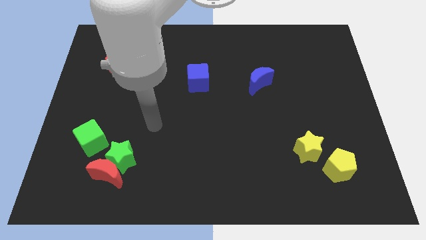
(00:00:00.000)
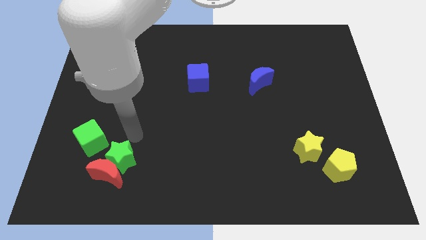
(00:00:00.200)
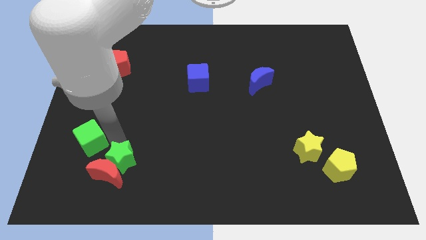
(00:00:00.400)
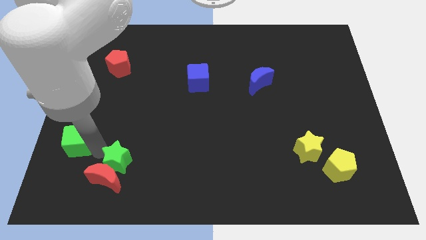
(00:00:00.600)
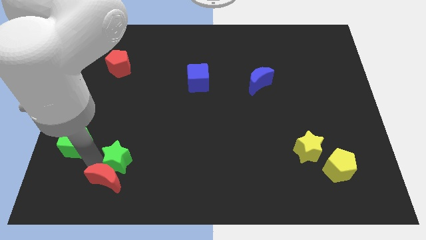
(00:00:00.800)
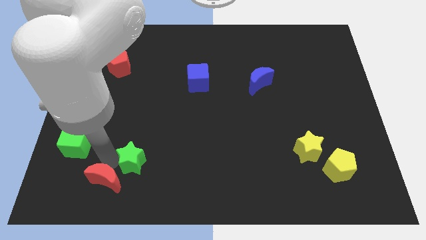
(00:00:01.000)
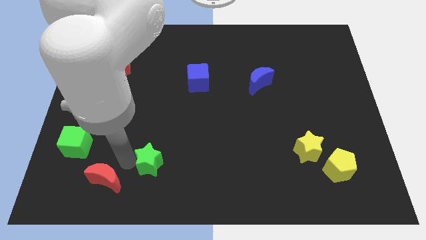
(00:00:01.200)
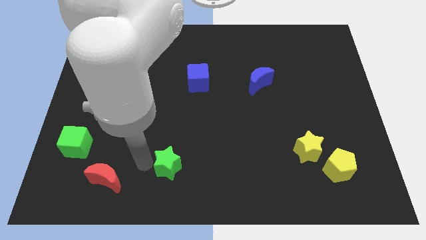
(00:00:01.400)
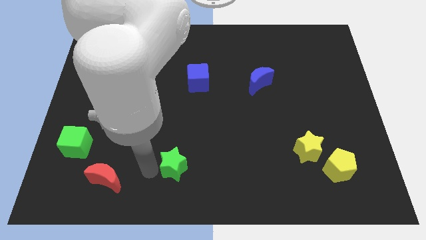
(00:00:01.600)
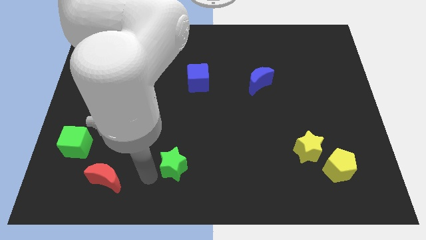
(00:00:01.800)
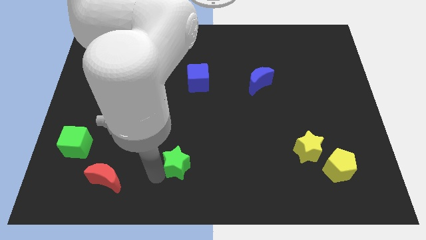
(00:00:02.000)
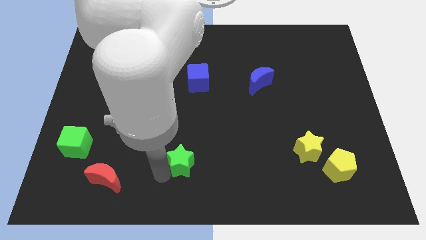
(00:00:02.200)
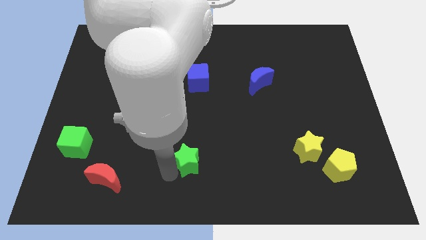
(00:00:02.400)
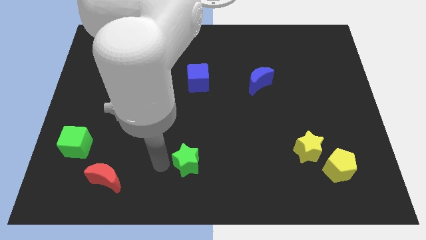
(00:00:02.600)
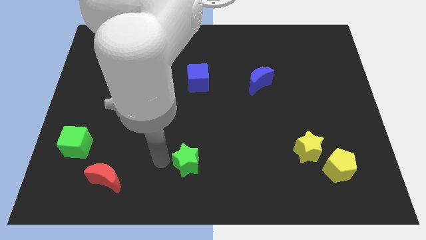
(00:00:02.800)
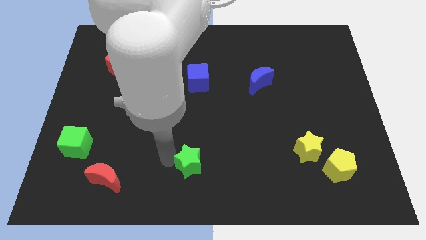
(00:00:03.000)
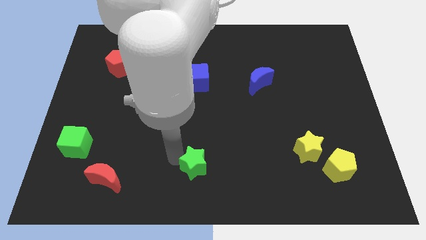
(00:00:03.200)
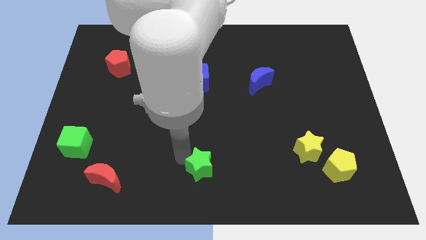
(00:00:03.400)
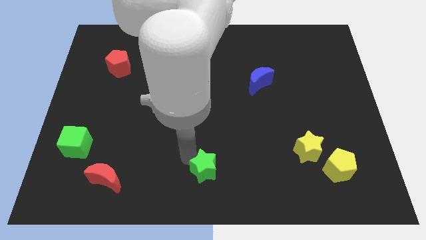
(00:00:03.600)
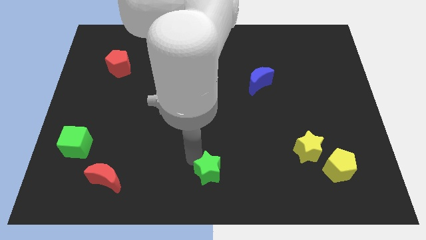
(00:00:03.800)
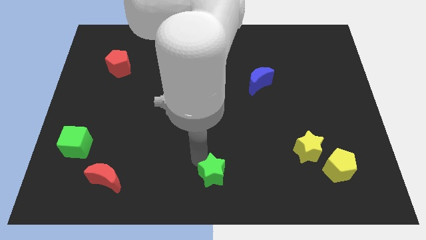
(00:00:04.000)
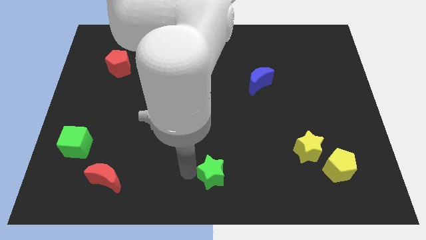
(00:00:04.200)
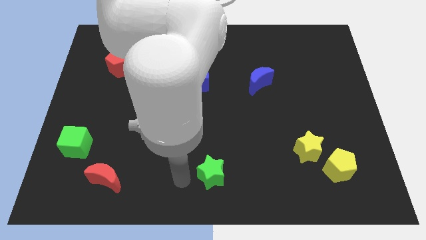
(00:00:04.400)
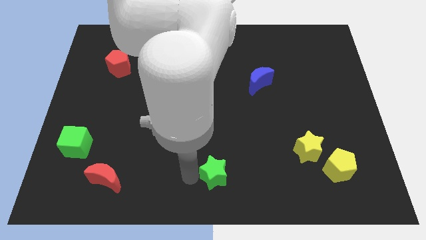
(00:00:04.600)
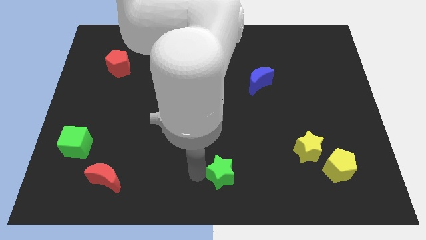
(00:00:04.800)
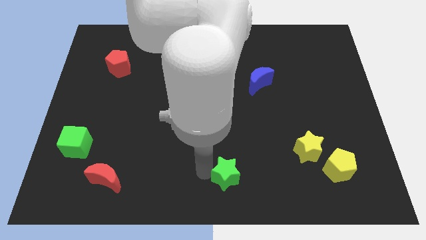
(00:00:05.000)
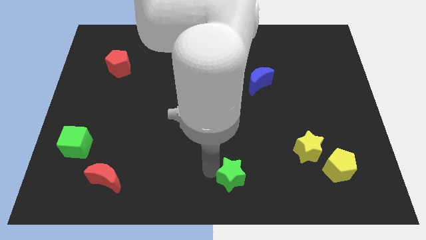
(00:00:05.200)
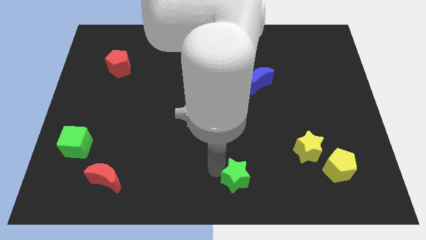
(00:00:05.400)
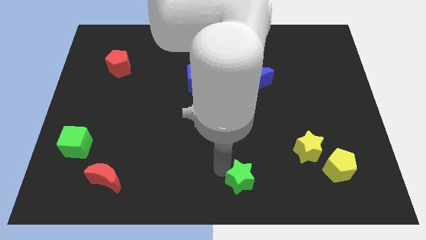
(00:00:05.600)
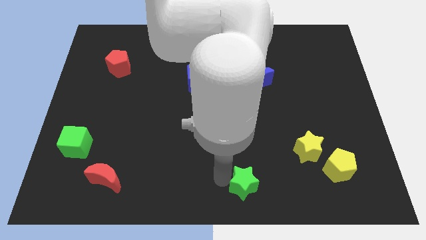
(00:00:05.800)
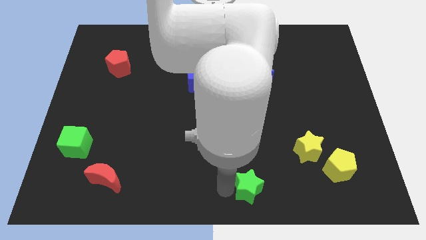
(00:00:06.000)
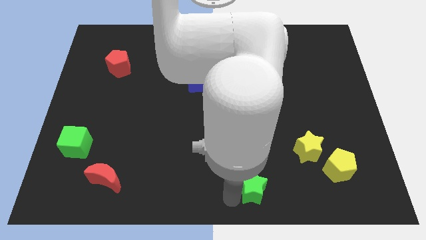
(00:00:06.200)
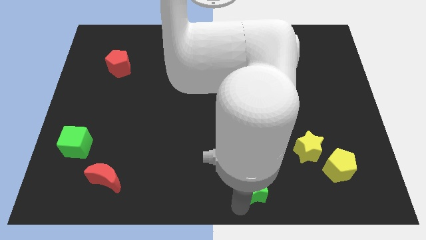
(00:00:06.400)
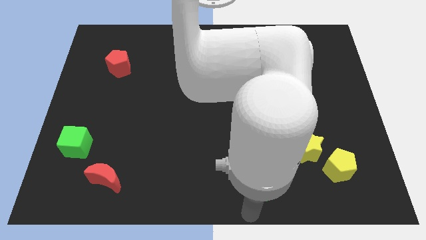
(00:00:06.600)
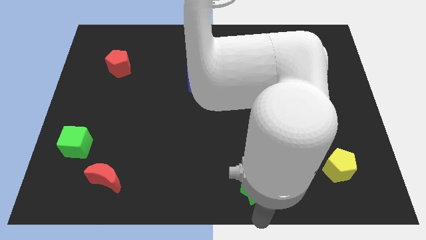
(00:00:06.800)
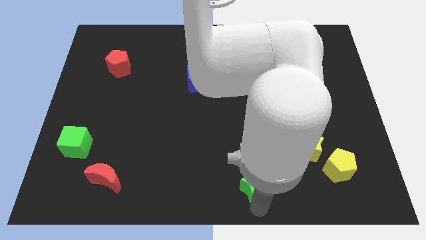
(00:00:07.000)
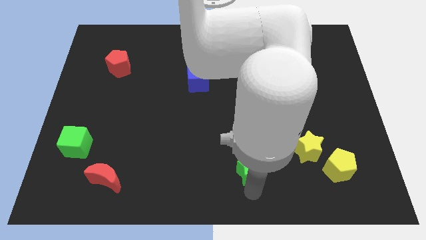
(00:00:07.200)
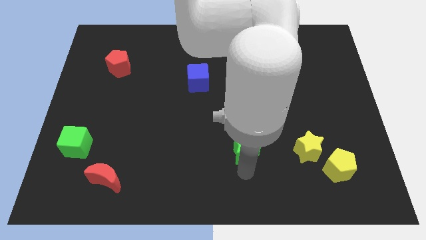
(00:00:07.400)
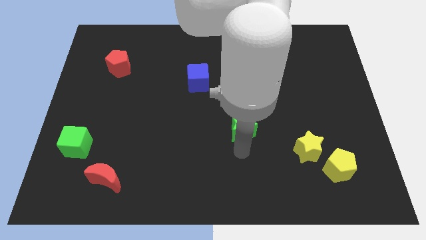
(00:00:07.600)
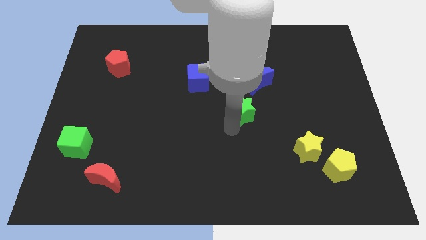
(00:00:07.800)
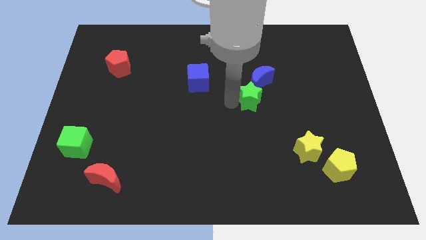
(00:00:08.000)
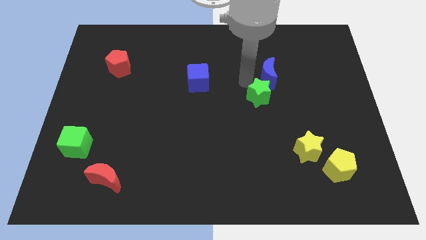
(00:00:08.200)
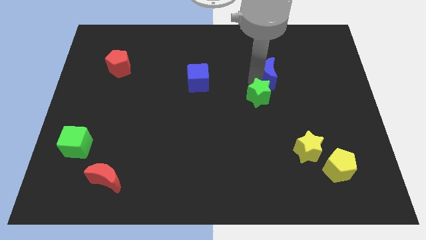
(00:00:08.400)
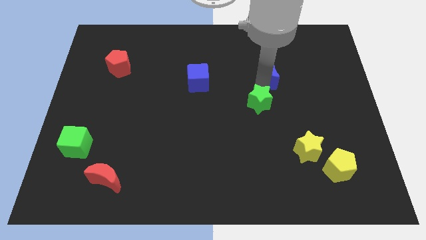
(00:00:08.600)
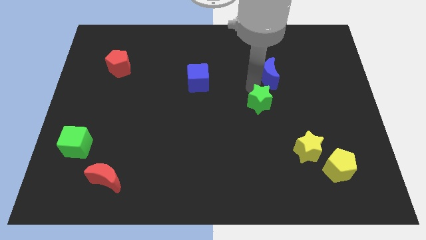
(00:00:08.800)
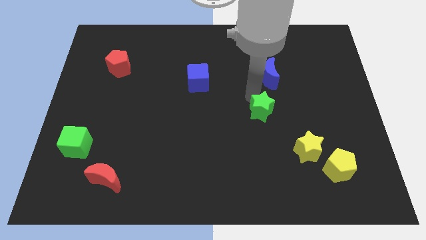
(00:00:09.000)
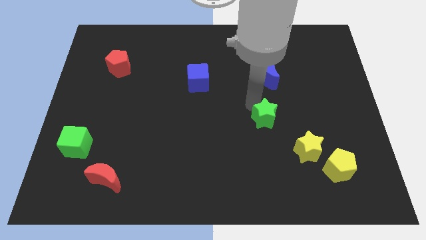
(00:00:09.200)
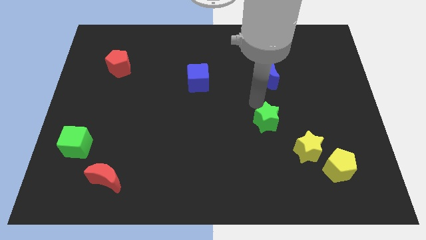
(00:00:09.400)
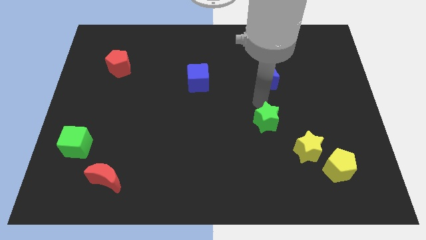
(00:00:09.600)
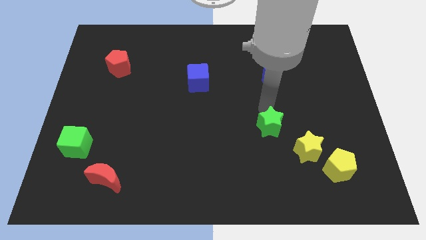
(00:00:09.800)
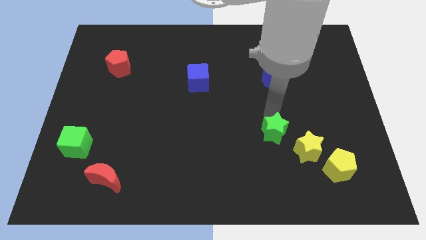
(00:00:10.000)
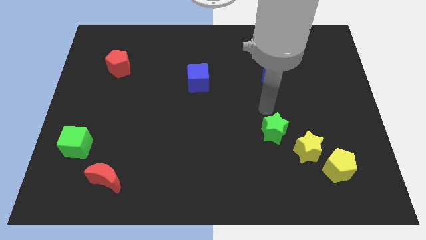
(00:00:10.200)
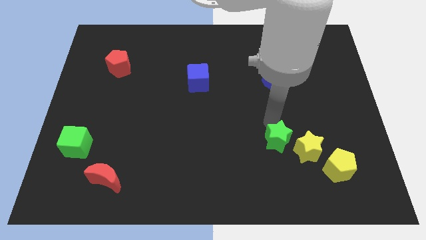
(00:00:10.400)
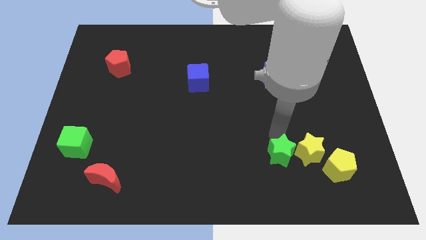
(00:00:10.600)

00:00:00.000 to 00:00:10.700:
move the green star to the left of the yellow pentagon

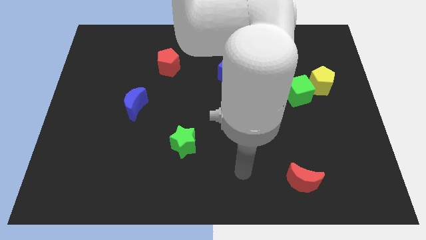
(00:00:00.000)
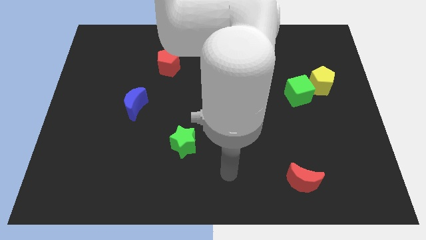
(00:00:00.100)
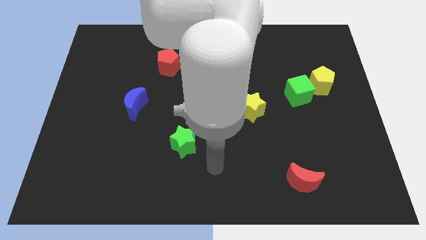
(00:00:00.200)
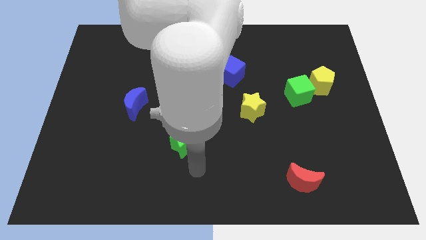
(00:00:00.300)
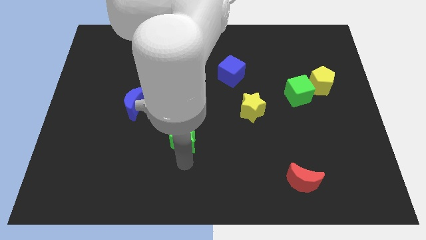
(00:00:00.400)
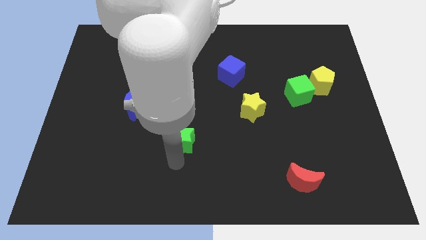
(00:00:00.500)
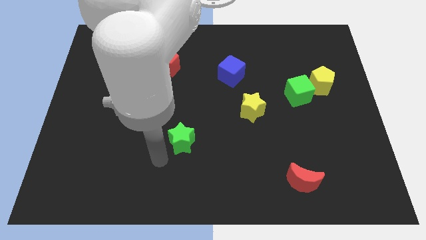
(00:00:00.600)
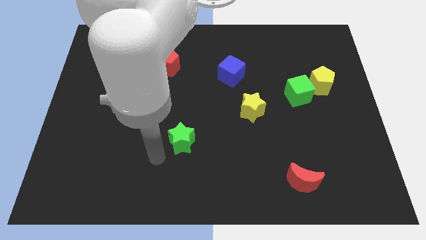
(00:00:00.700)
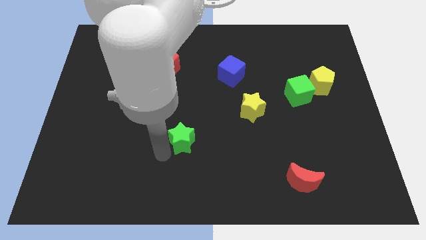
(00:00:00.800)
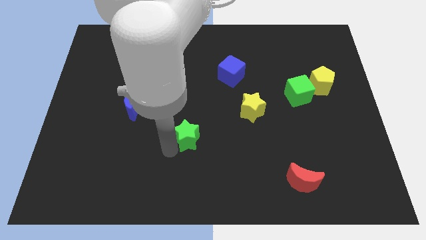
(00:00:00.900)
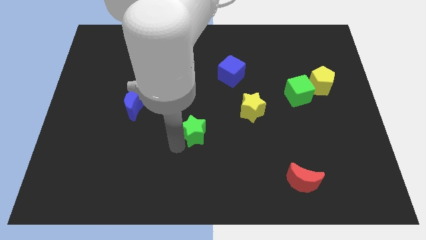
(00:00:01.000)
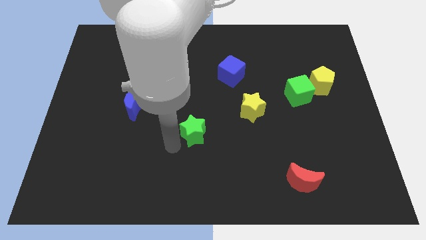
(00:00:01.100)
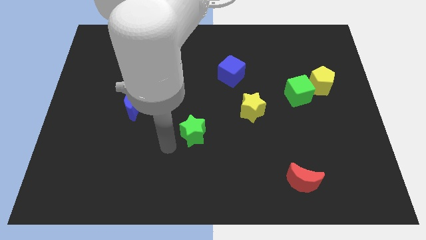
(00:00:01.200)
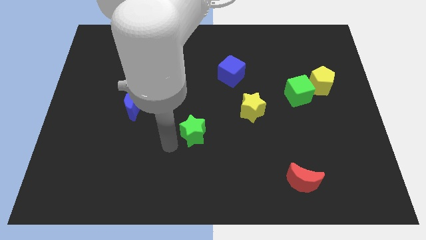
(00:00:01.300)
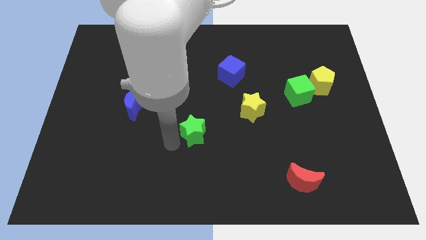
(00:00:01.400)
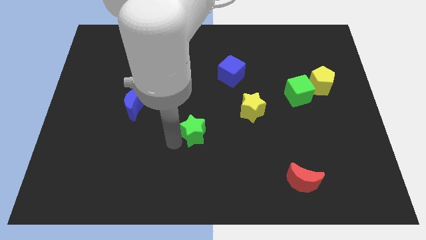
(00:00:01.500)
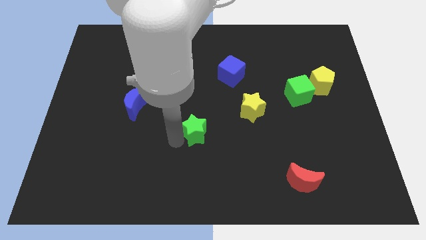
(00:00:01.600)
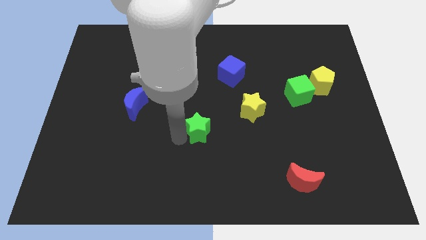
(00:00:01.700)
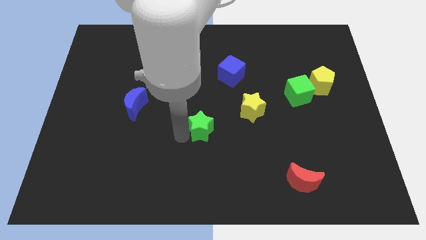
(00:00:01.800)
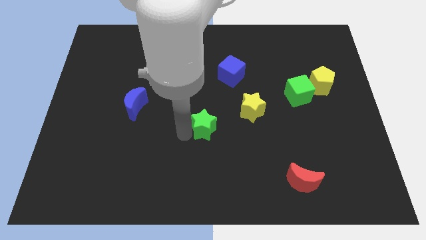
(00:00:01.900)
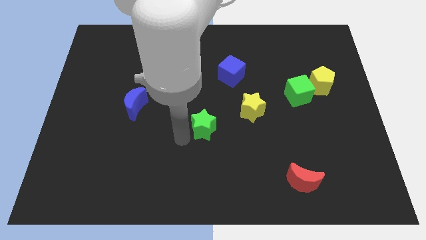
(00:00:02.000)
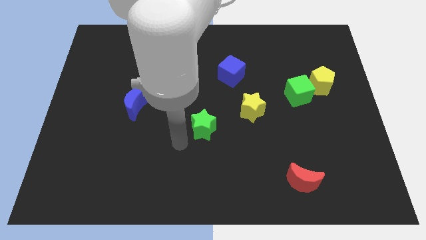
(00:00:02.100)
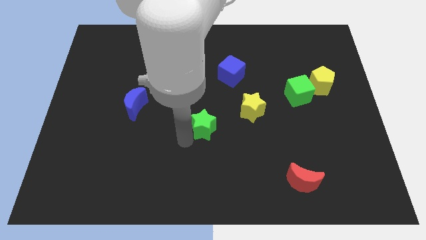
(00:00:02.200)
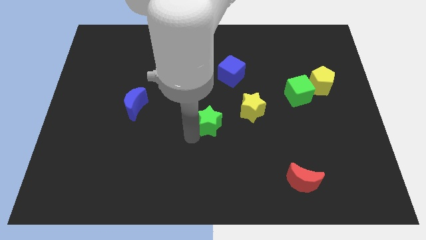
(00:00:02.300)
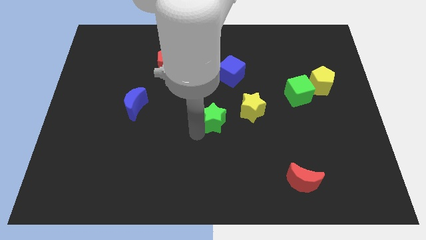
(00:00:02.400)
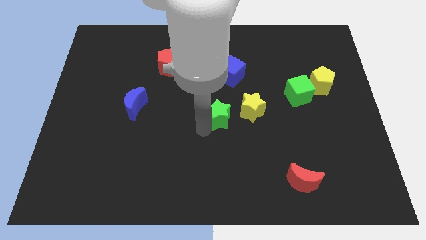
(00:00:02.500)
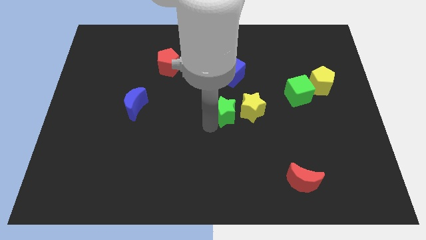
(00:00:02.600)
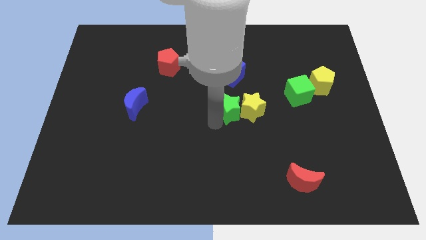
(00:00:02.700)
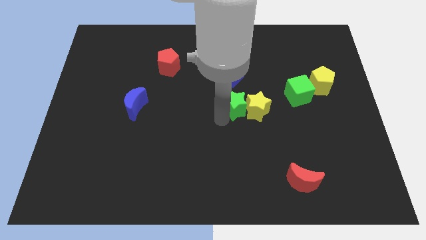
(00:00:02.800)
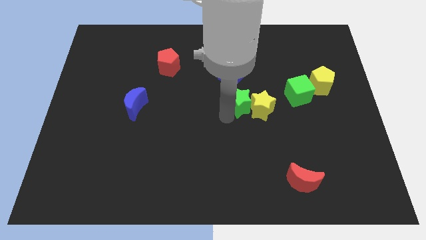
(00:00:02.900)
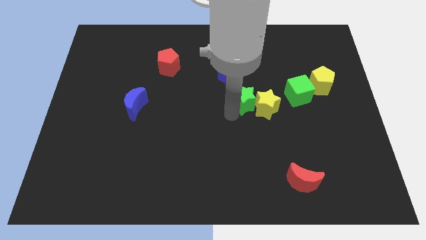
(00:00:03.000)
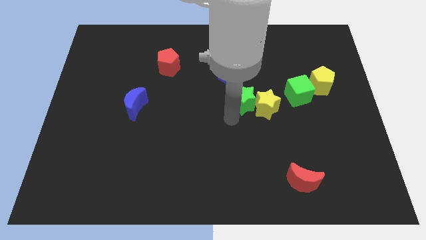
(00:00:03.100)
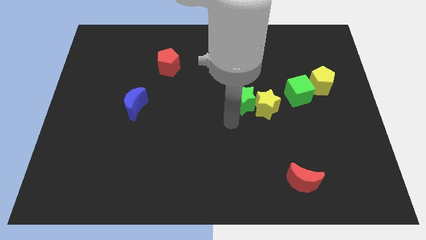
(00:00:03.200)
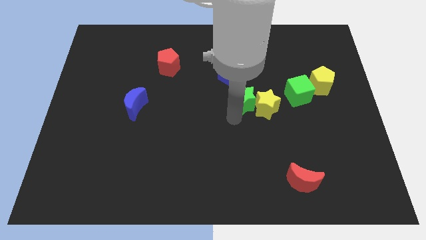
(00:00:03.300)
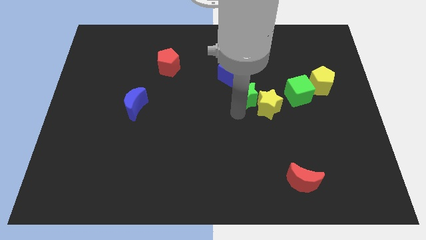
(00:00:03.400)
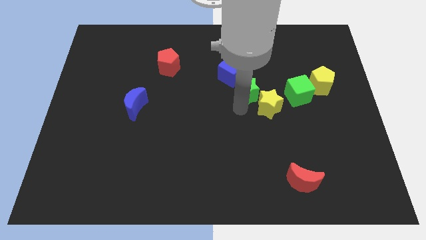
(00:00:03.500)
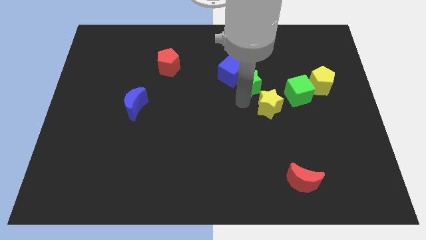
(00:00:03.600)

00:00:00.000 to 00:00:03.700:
push the green star right of the blue cube
